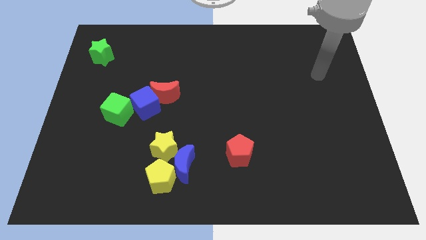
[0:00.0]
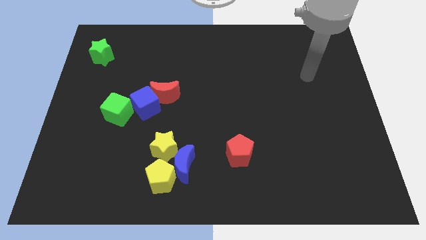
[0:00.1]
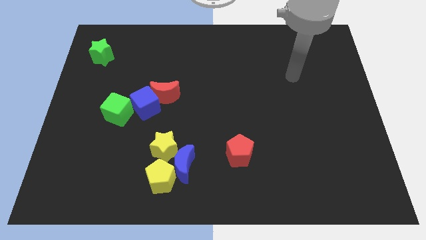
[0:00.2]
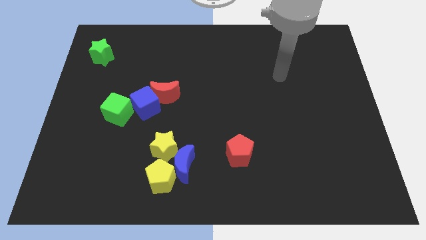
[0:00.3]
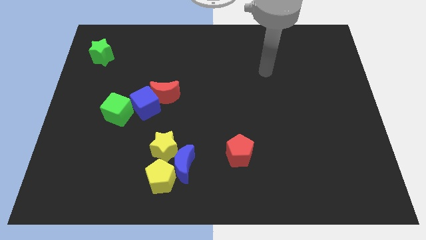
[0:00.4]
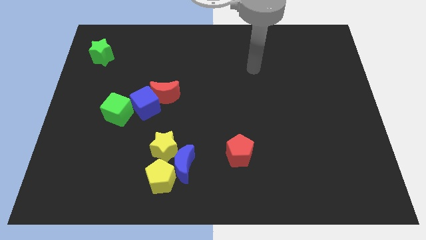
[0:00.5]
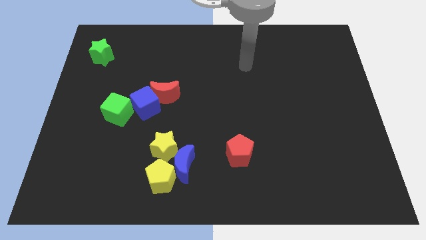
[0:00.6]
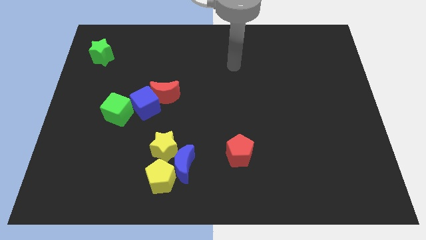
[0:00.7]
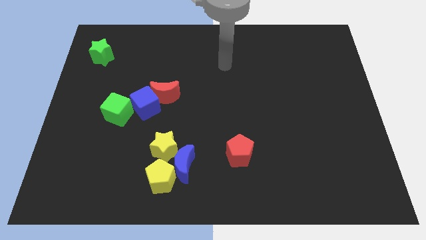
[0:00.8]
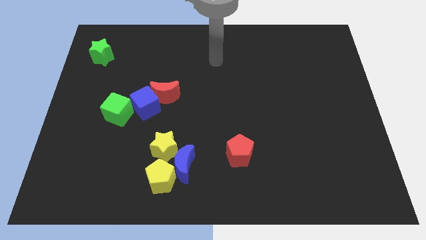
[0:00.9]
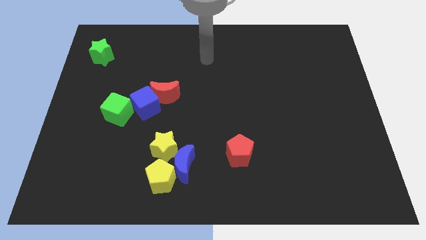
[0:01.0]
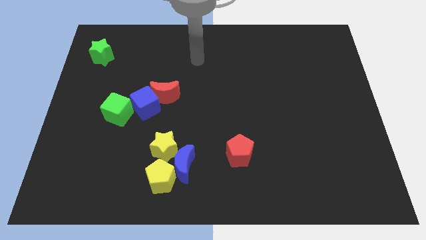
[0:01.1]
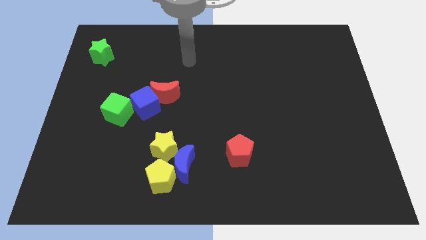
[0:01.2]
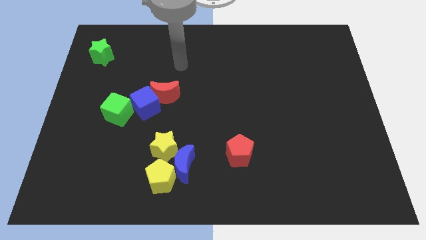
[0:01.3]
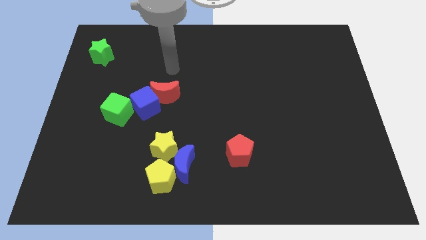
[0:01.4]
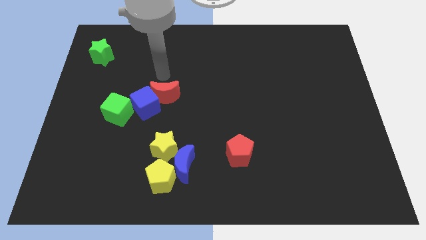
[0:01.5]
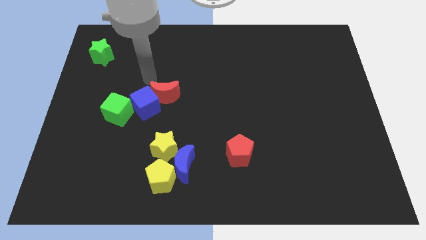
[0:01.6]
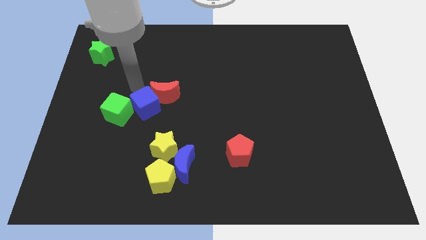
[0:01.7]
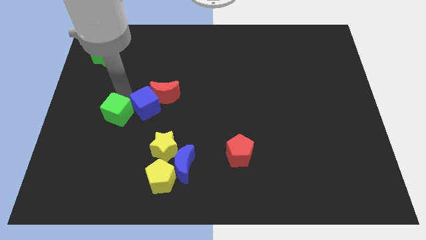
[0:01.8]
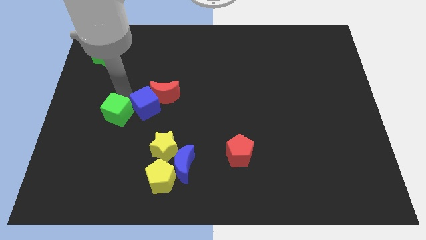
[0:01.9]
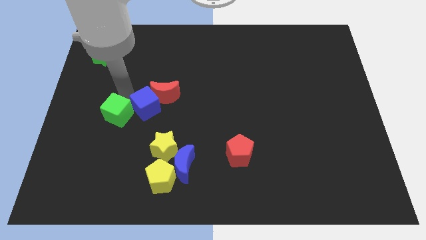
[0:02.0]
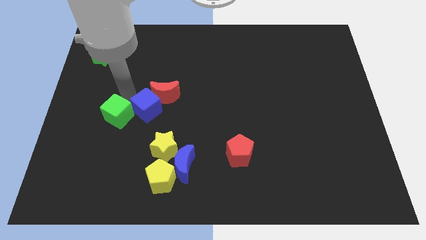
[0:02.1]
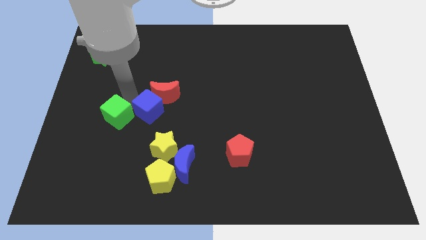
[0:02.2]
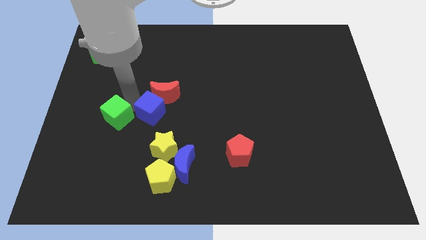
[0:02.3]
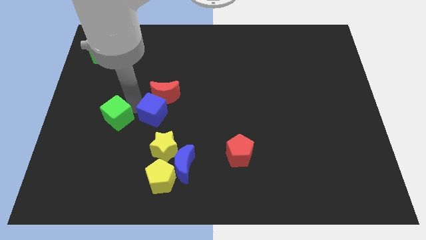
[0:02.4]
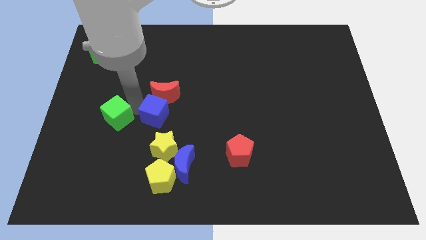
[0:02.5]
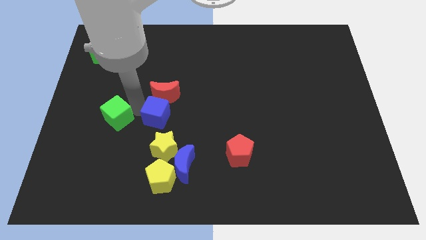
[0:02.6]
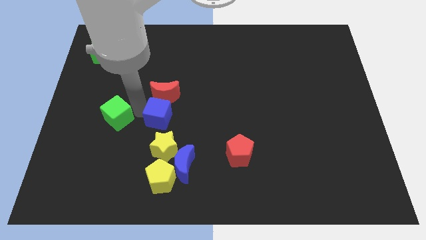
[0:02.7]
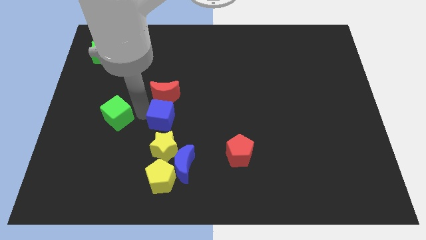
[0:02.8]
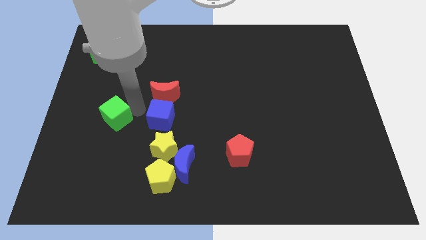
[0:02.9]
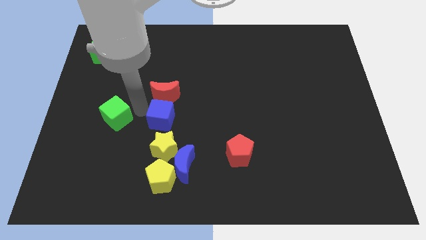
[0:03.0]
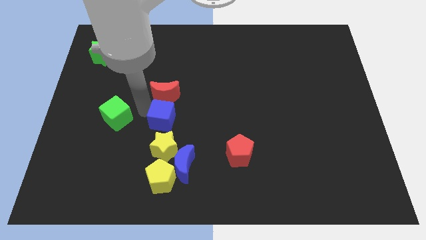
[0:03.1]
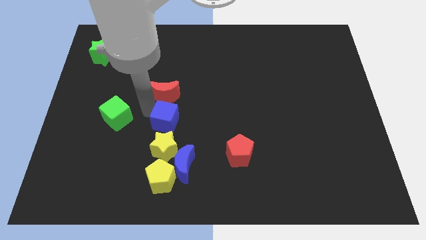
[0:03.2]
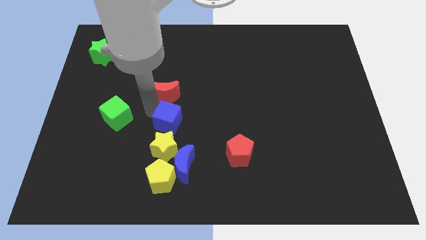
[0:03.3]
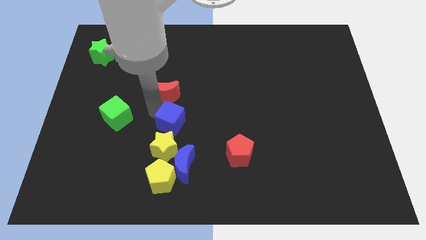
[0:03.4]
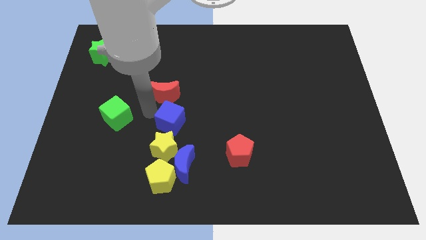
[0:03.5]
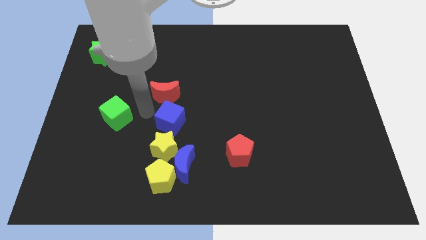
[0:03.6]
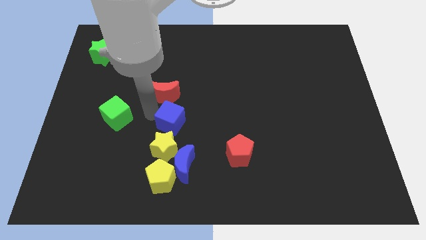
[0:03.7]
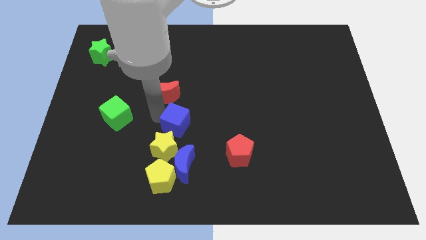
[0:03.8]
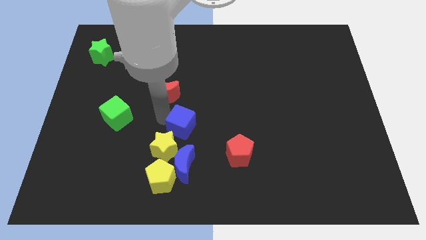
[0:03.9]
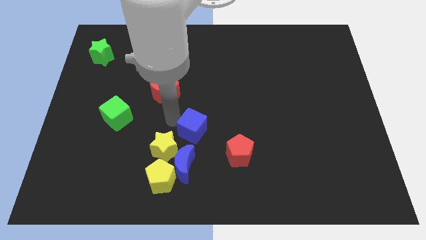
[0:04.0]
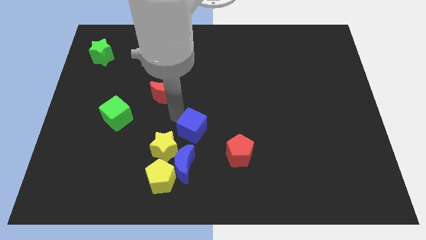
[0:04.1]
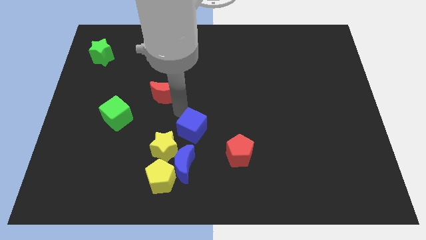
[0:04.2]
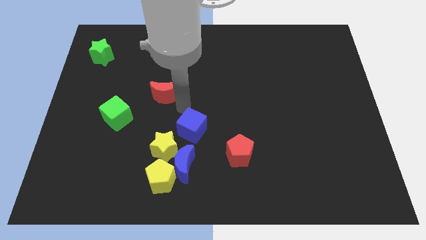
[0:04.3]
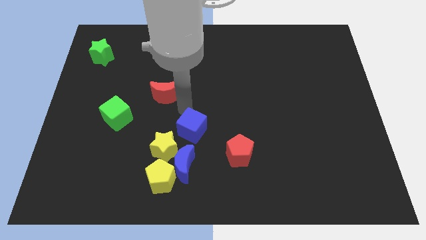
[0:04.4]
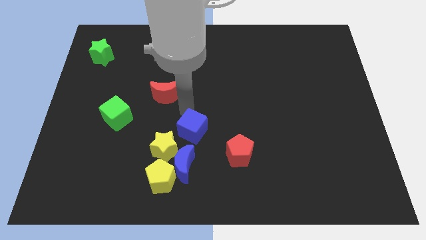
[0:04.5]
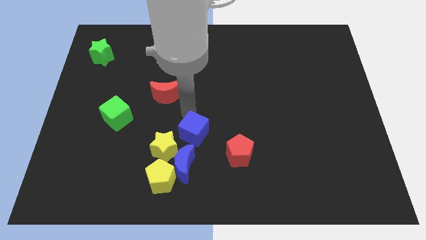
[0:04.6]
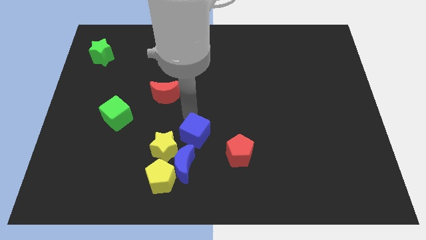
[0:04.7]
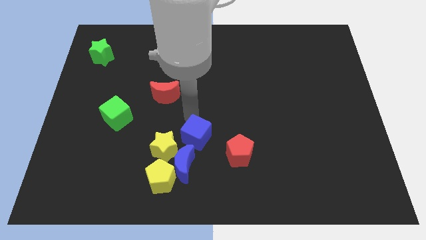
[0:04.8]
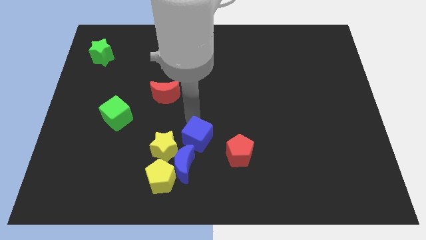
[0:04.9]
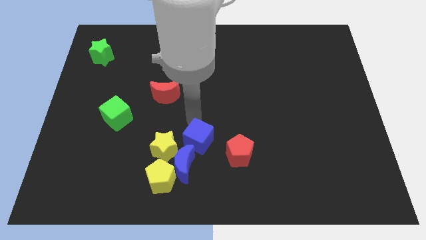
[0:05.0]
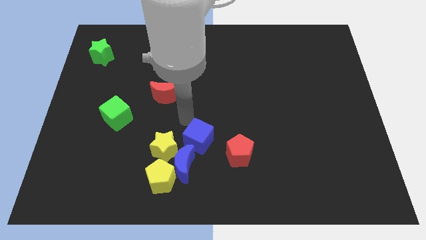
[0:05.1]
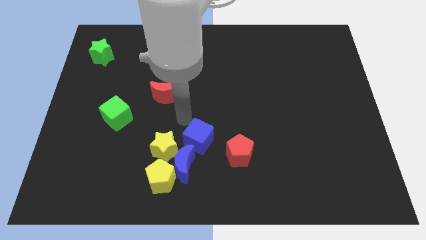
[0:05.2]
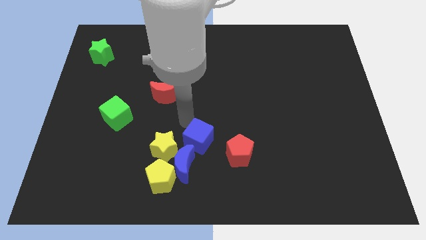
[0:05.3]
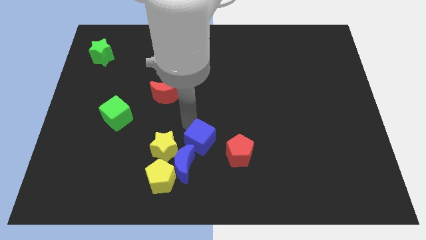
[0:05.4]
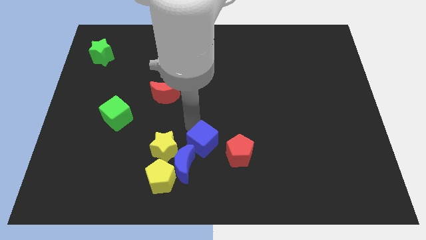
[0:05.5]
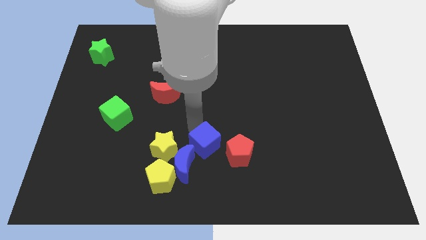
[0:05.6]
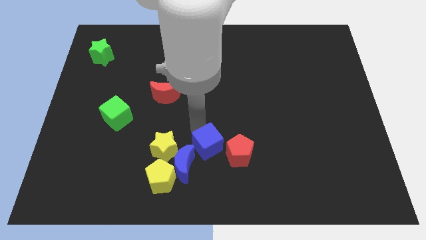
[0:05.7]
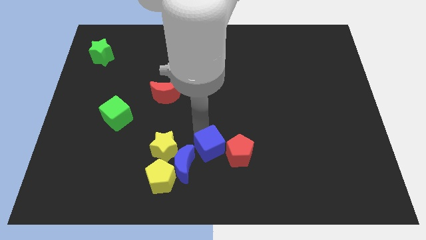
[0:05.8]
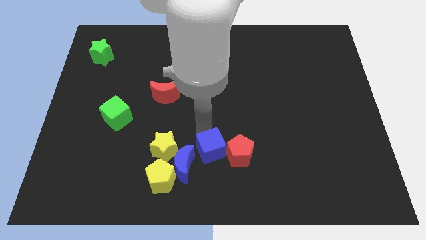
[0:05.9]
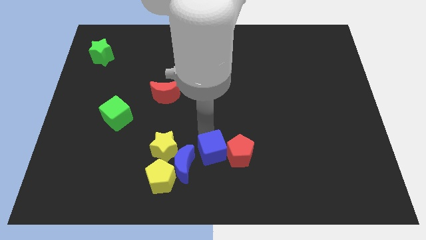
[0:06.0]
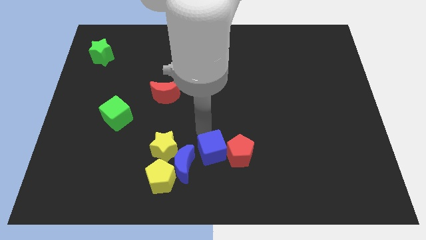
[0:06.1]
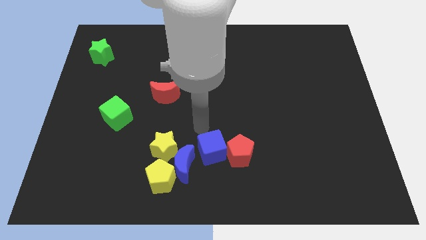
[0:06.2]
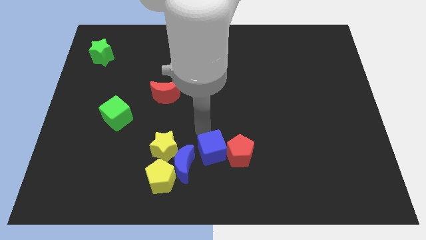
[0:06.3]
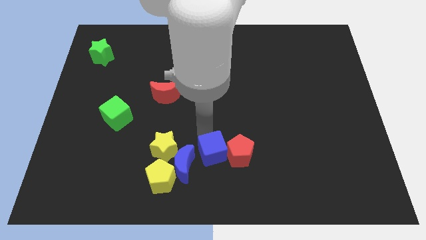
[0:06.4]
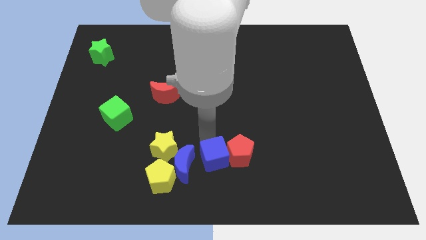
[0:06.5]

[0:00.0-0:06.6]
move the blue cube to the bottom
